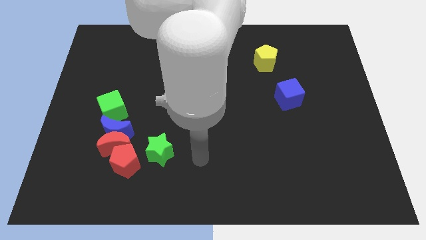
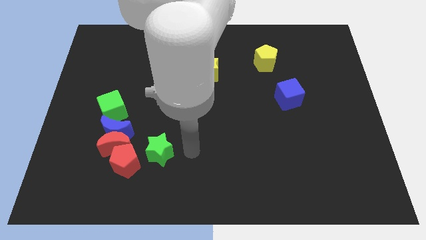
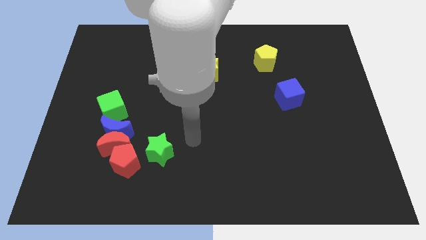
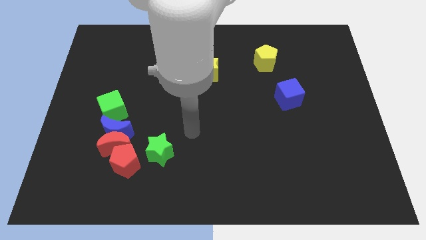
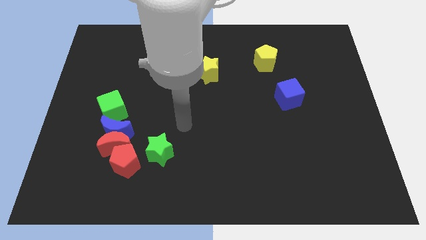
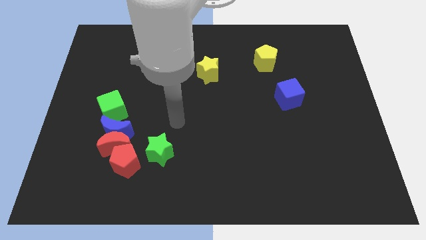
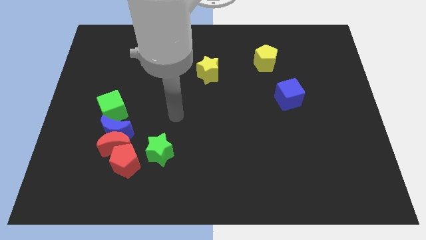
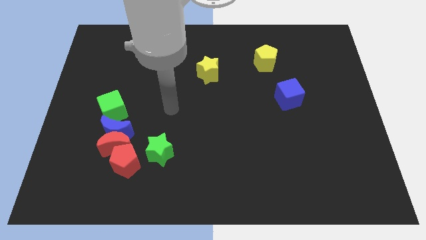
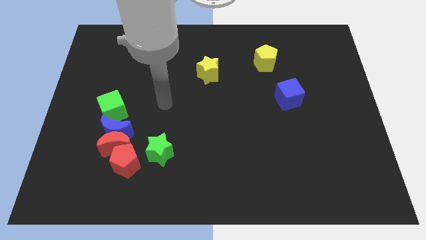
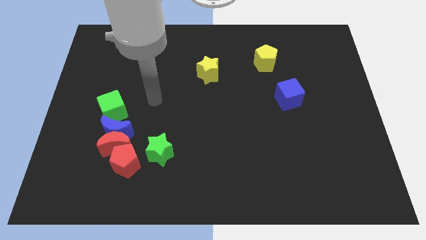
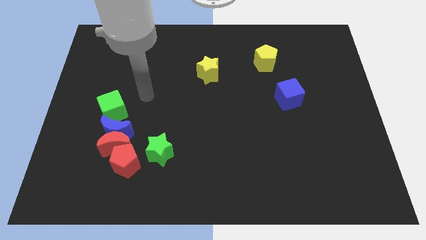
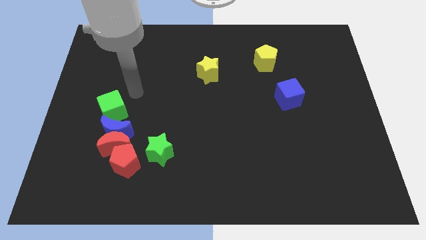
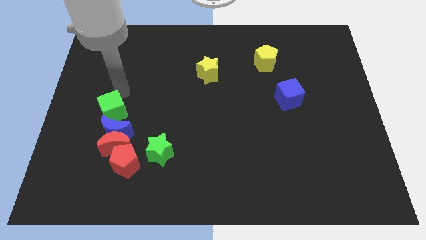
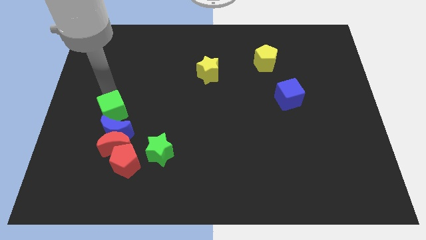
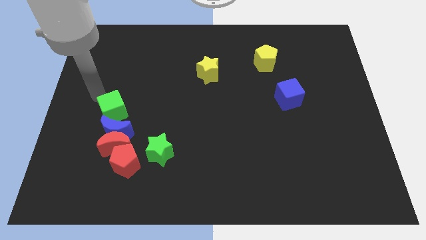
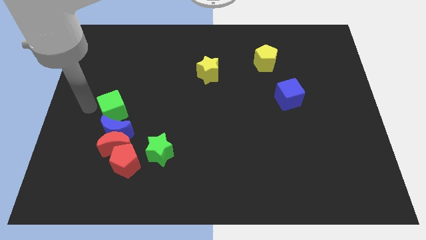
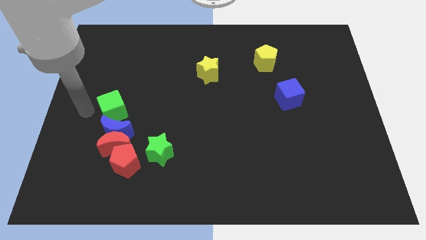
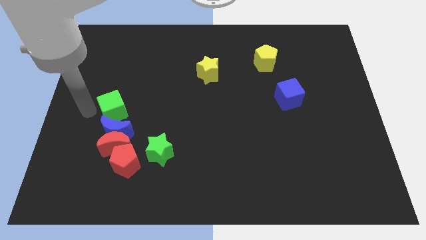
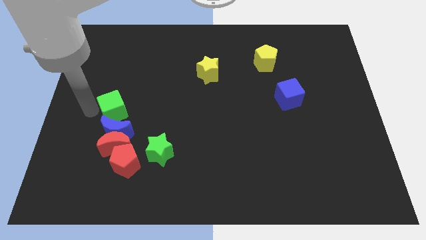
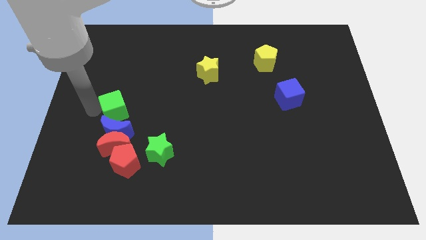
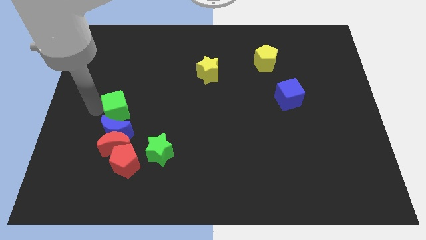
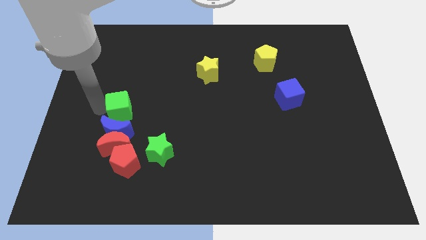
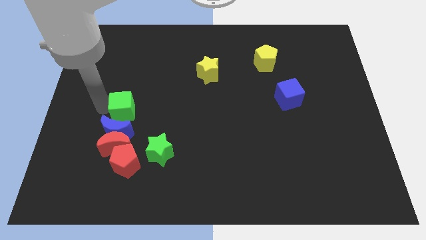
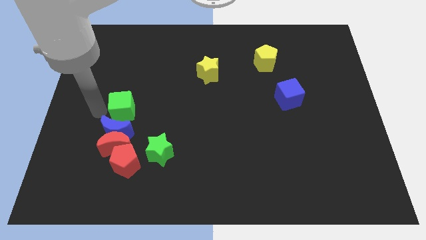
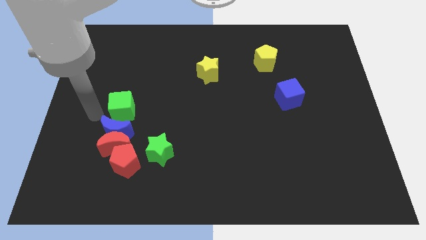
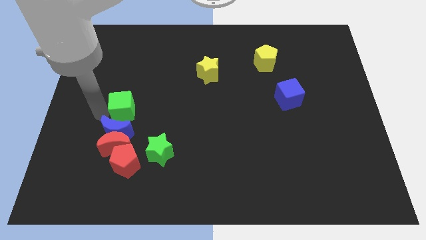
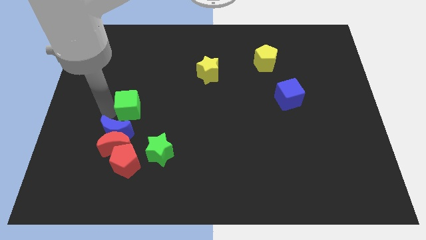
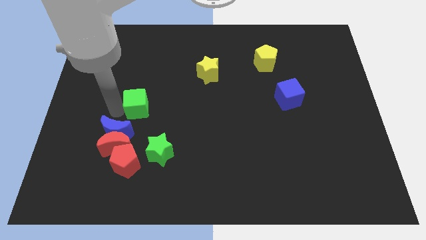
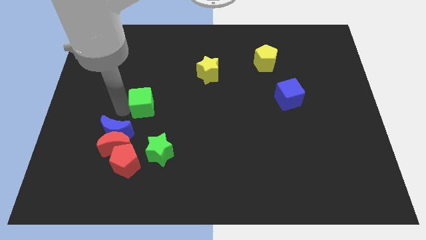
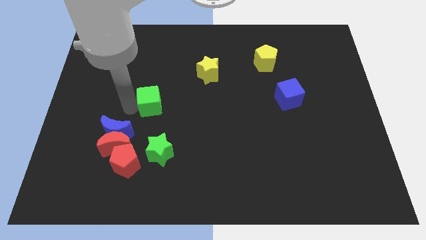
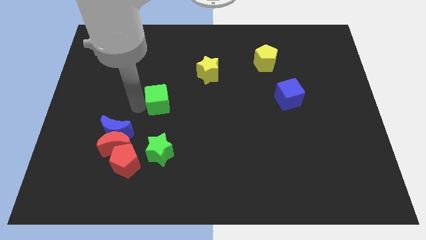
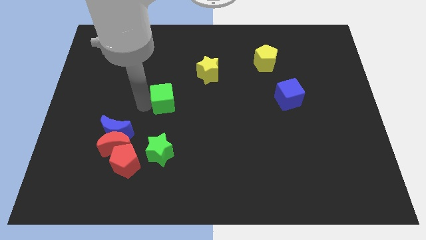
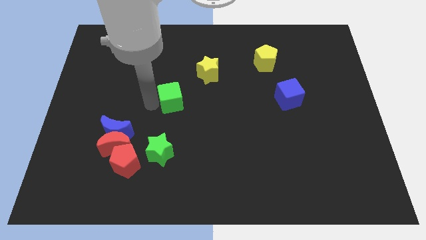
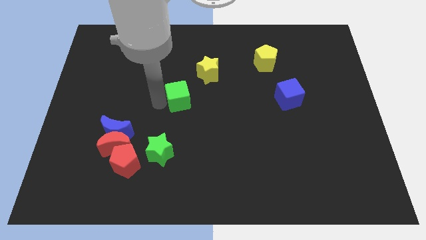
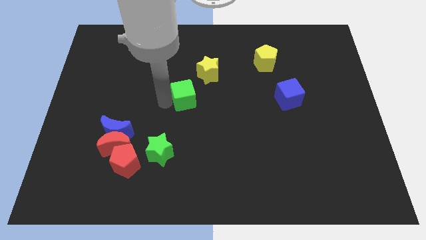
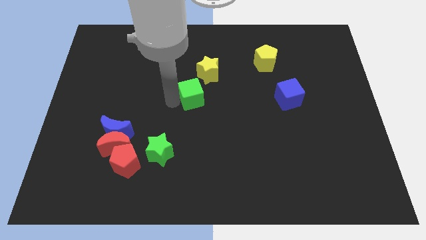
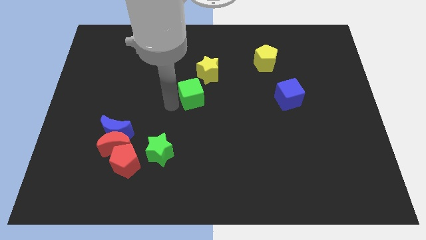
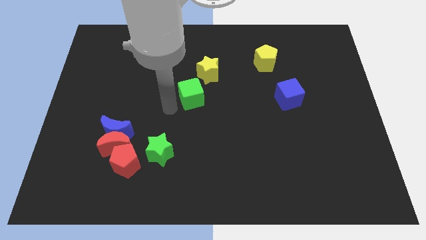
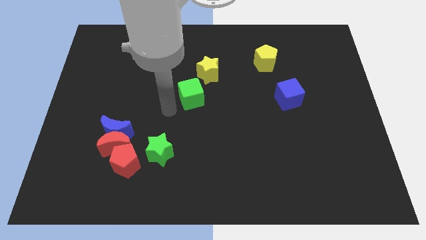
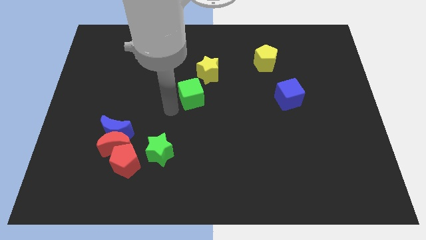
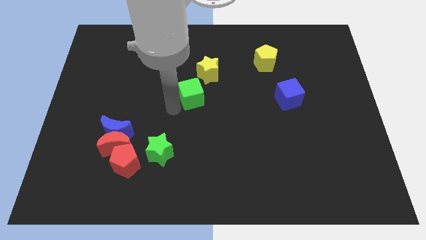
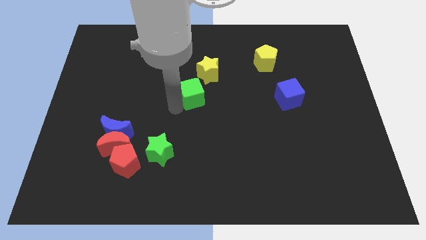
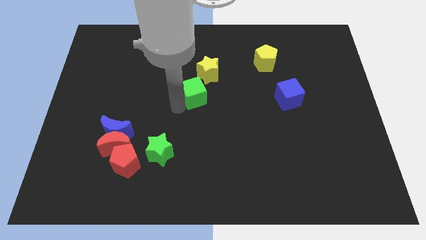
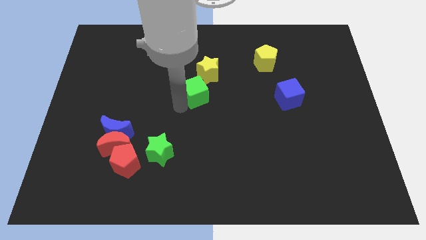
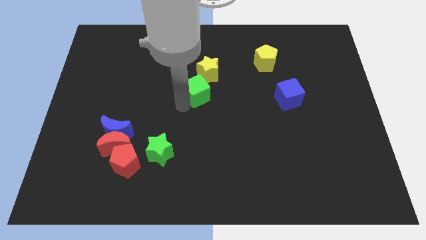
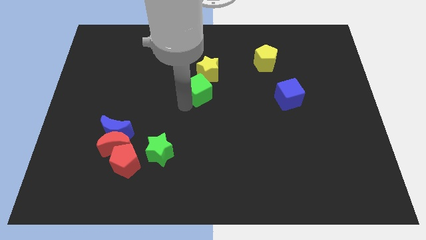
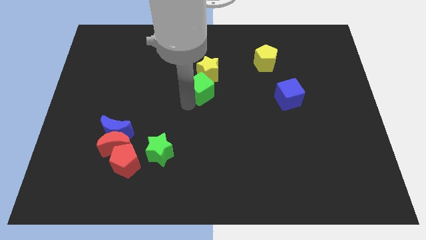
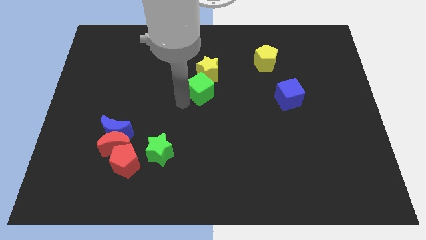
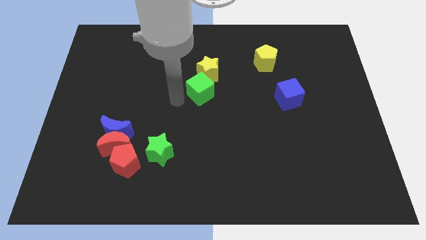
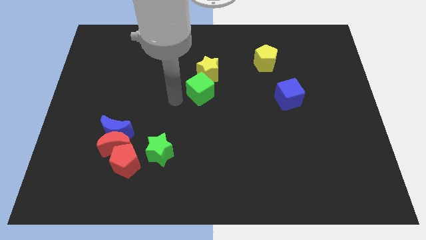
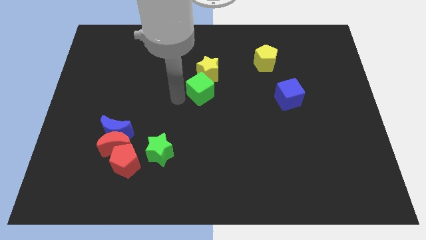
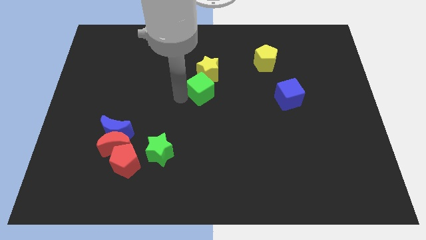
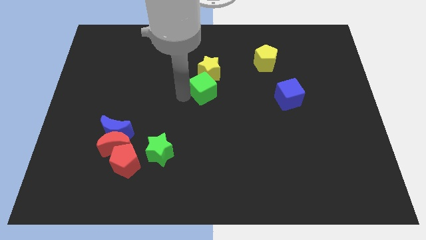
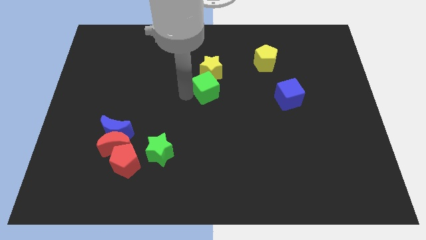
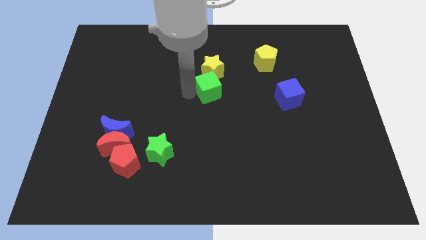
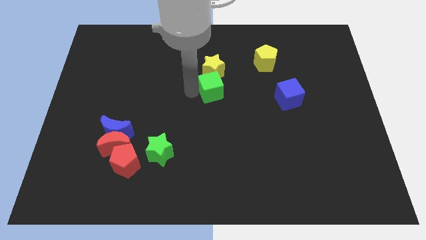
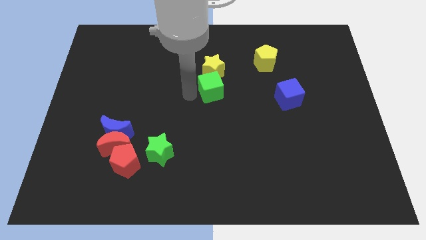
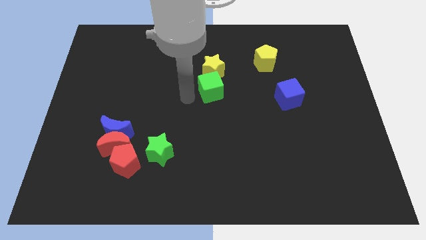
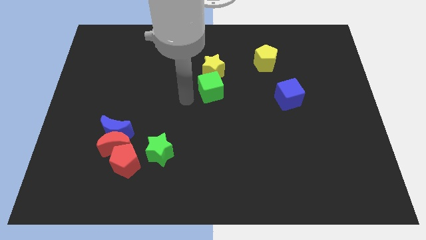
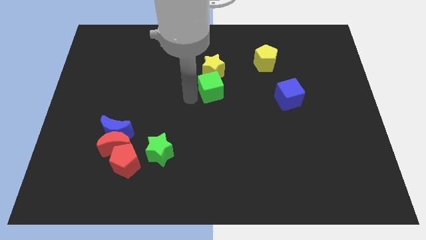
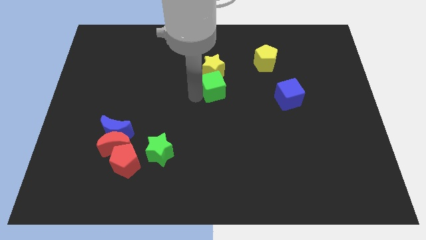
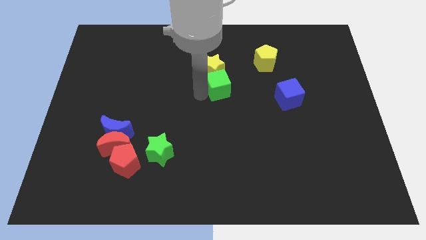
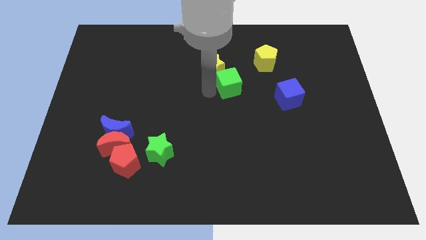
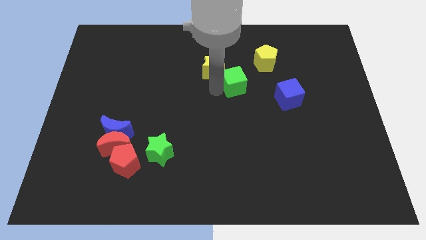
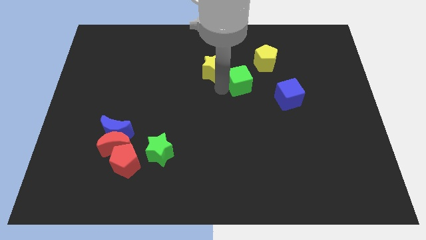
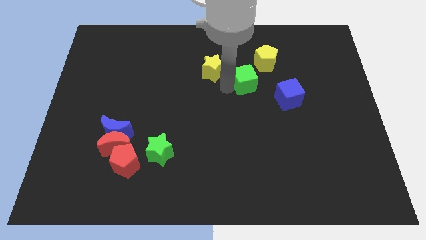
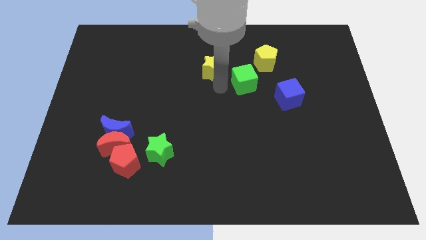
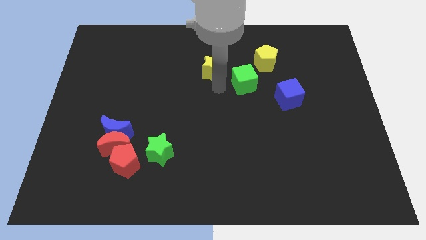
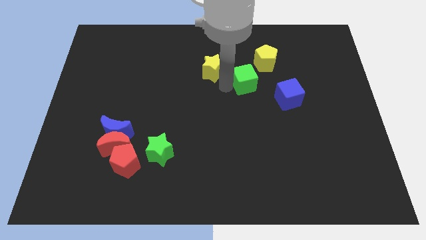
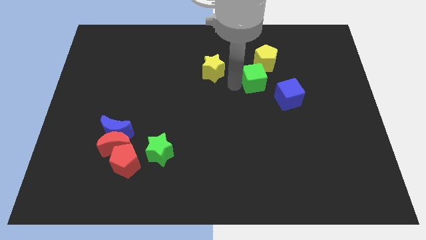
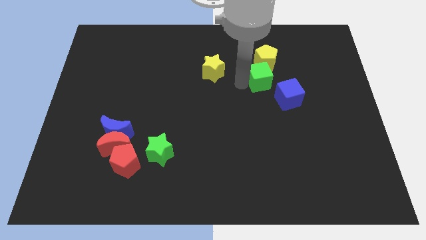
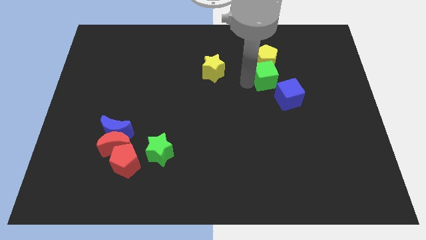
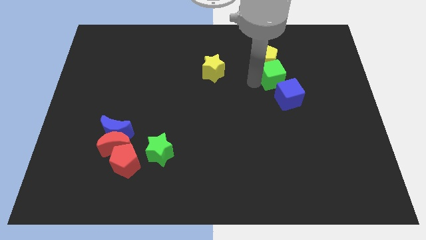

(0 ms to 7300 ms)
put the green cube above the blue cube
